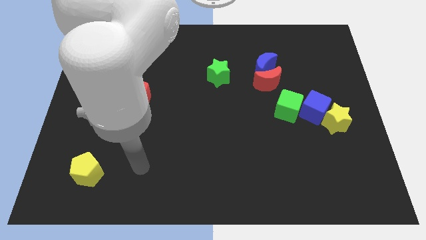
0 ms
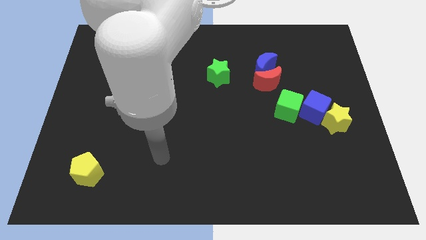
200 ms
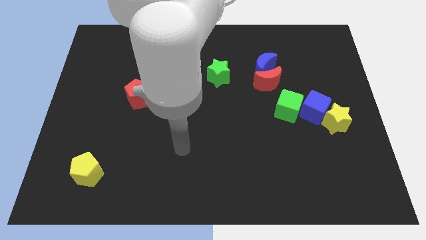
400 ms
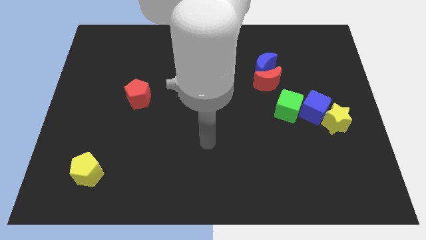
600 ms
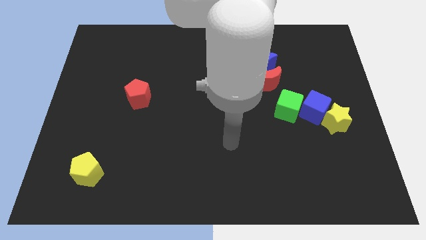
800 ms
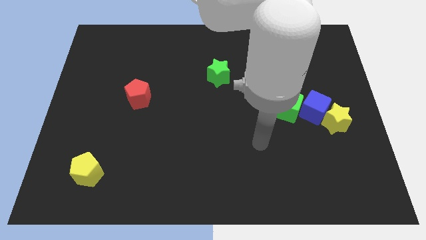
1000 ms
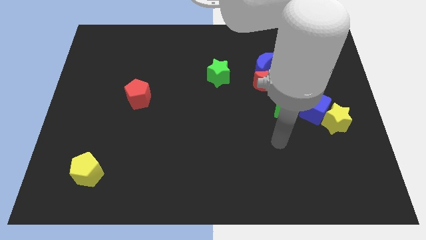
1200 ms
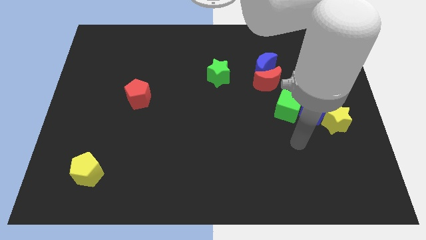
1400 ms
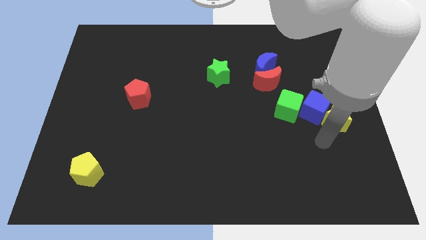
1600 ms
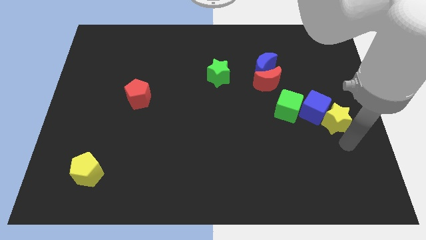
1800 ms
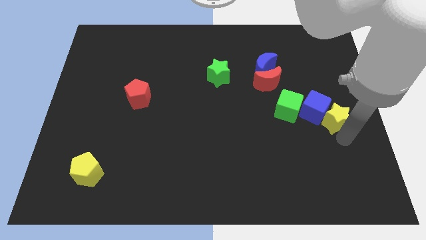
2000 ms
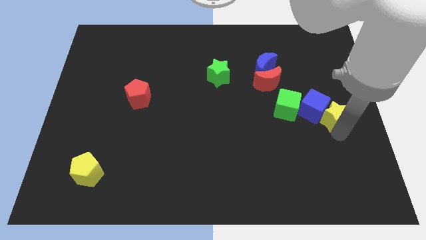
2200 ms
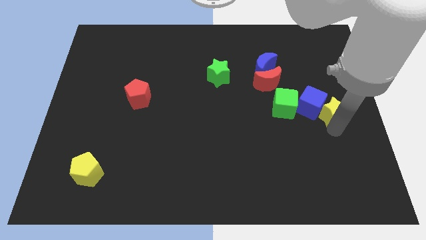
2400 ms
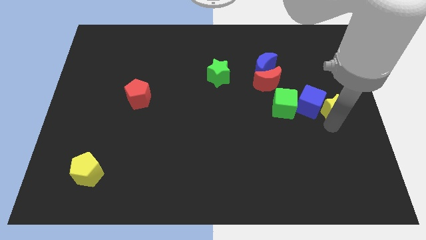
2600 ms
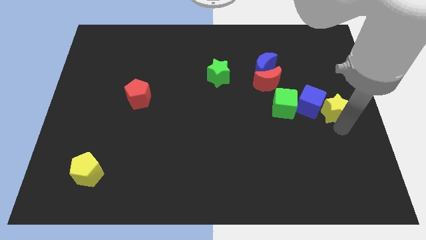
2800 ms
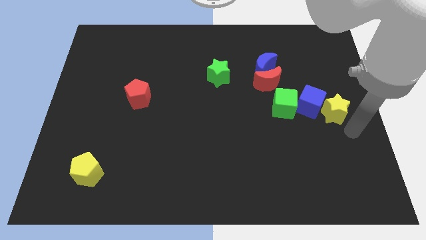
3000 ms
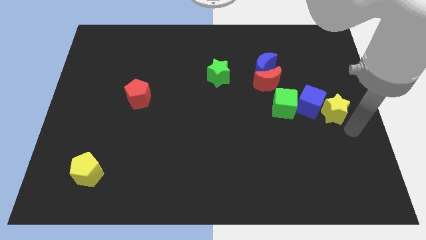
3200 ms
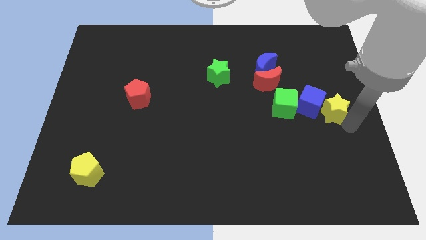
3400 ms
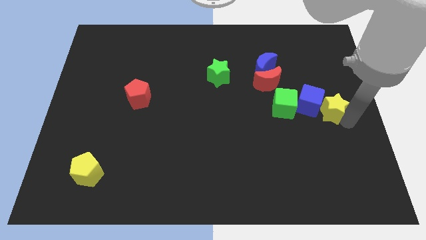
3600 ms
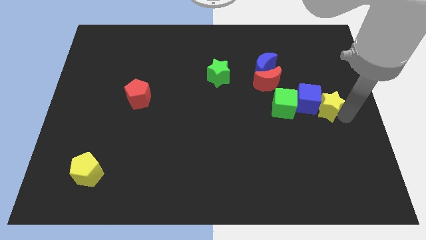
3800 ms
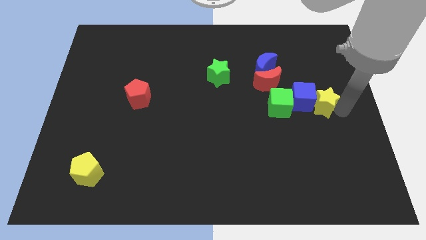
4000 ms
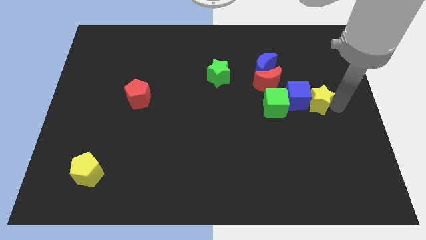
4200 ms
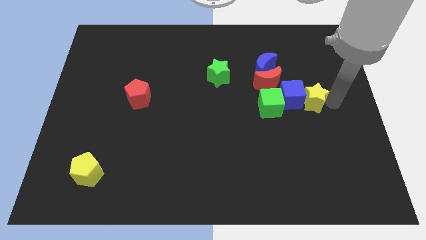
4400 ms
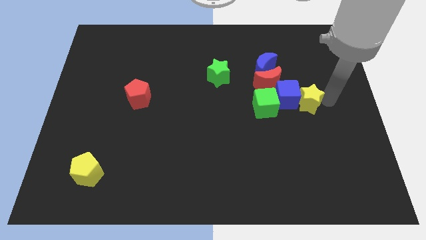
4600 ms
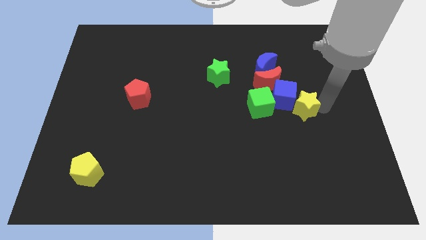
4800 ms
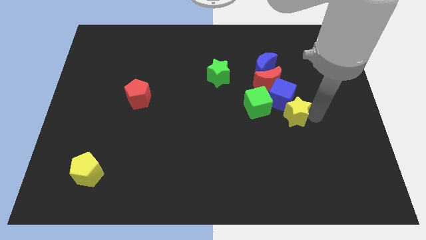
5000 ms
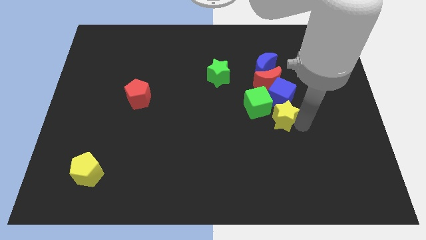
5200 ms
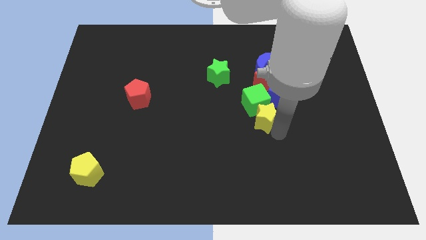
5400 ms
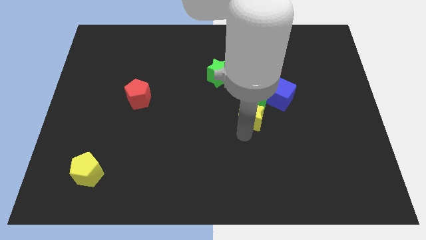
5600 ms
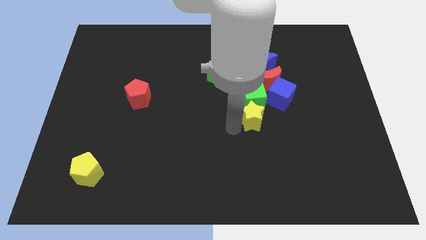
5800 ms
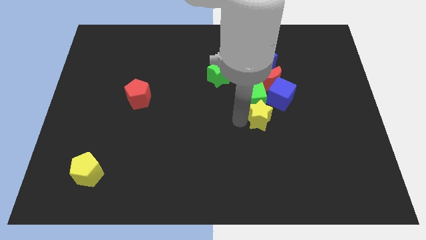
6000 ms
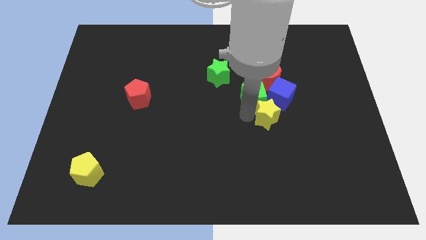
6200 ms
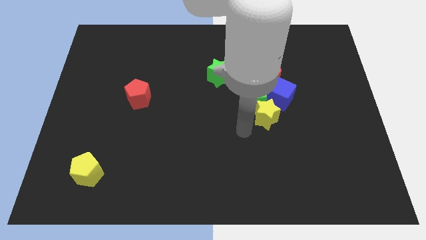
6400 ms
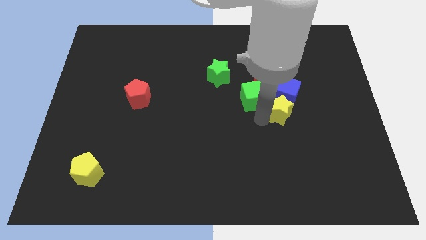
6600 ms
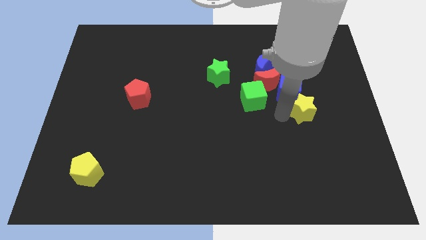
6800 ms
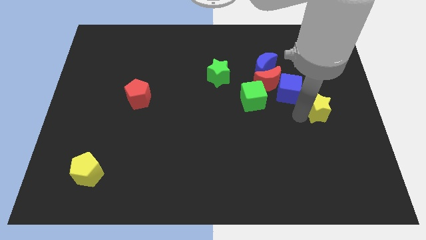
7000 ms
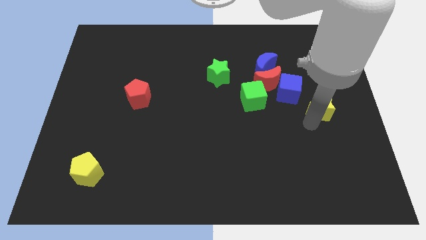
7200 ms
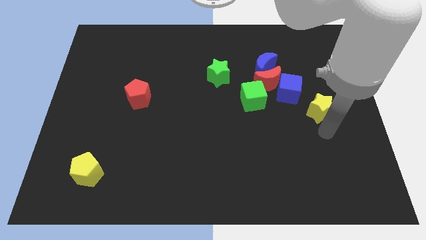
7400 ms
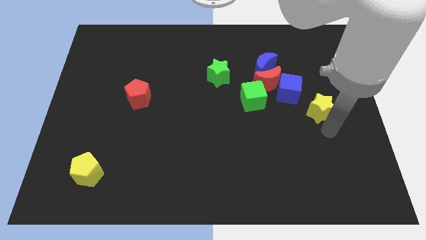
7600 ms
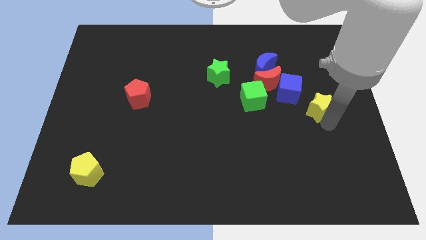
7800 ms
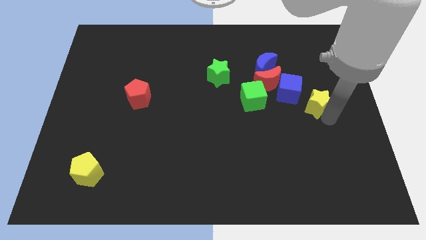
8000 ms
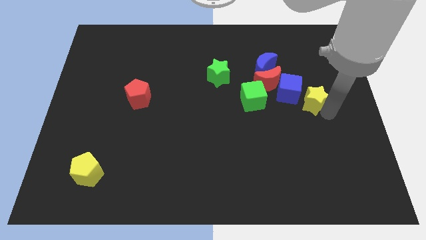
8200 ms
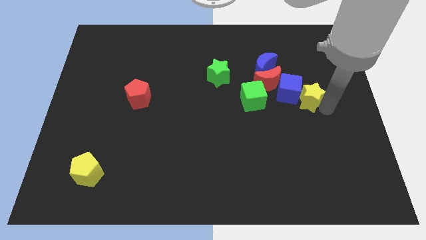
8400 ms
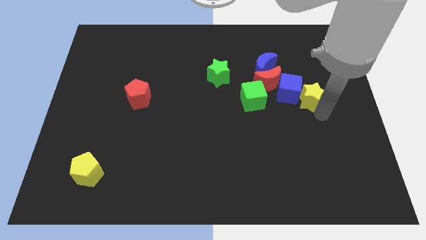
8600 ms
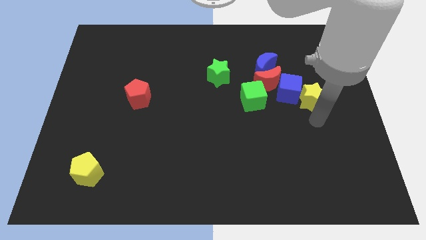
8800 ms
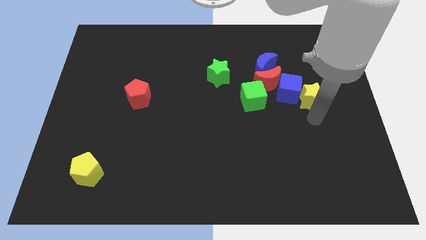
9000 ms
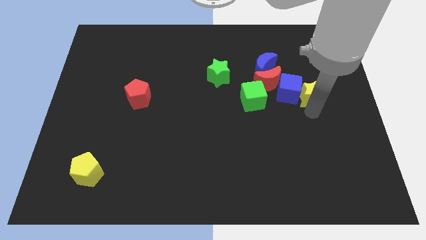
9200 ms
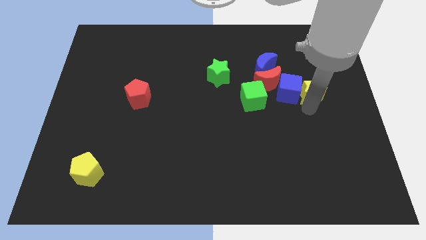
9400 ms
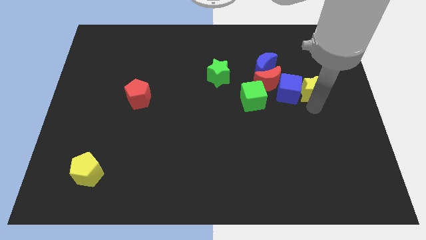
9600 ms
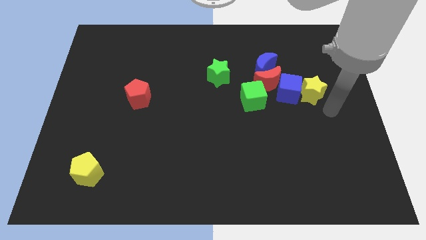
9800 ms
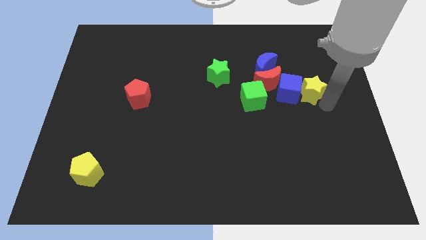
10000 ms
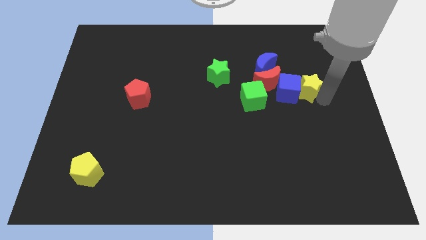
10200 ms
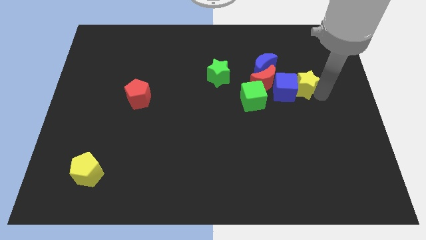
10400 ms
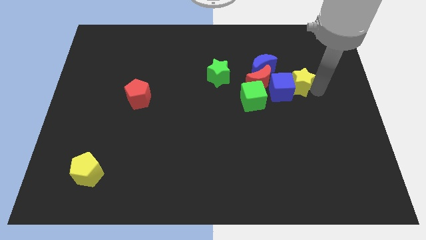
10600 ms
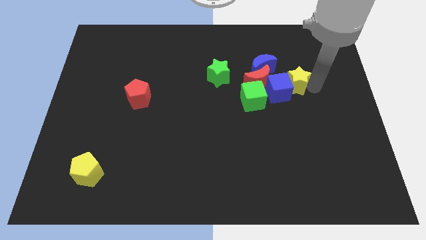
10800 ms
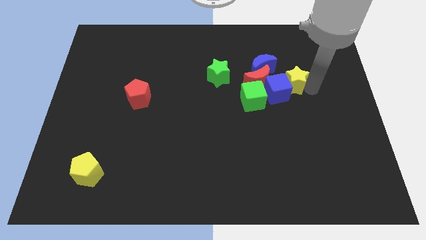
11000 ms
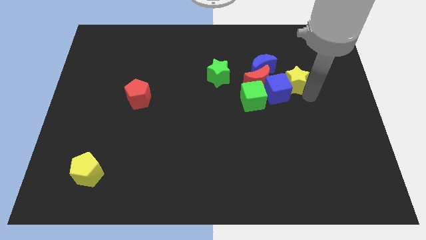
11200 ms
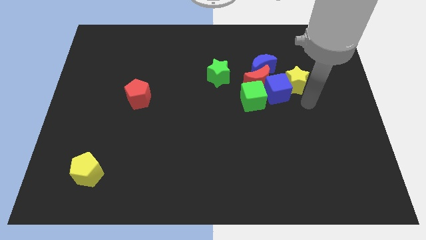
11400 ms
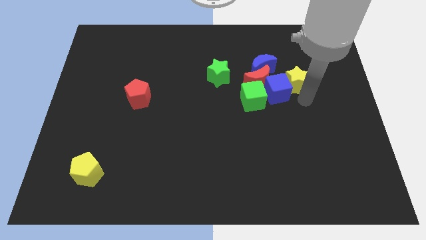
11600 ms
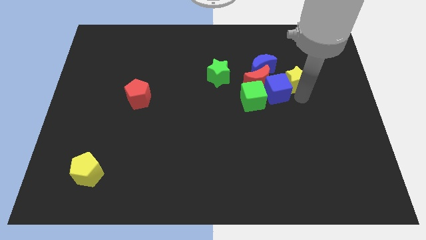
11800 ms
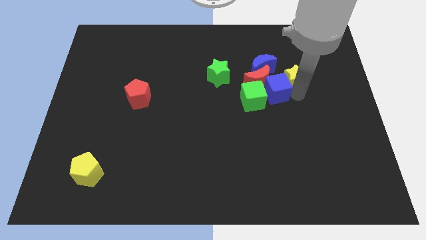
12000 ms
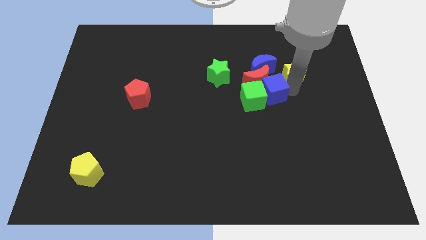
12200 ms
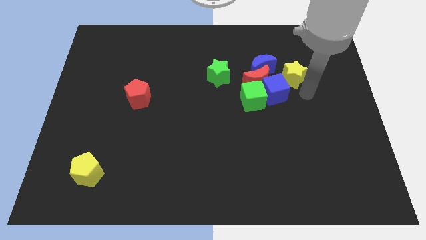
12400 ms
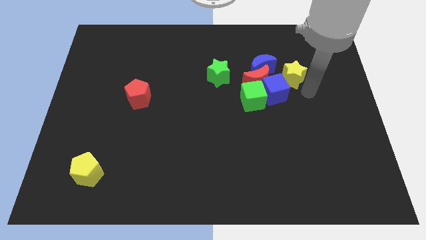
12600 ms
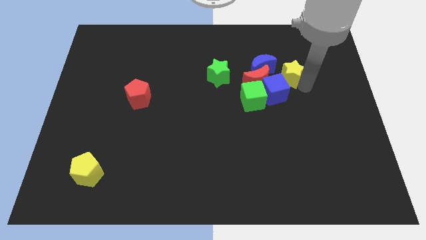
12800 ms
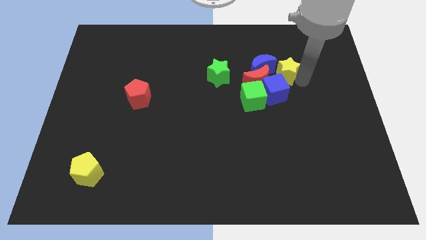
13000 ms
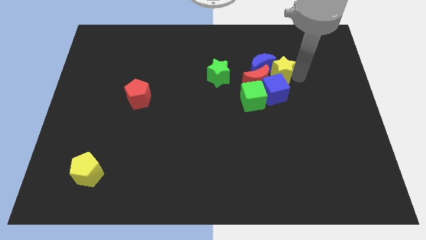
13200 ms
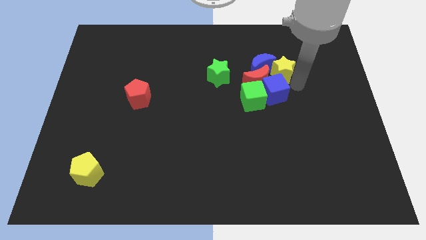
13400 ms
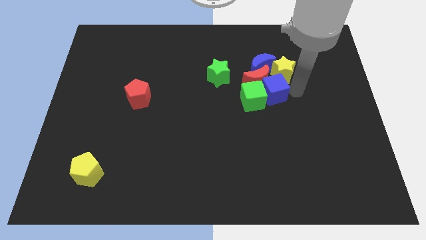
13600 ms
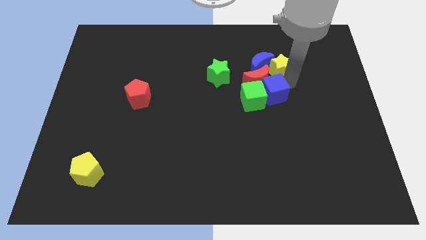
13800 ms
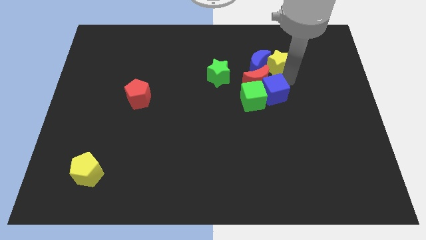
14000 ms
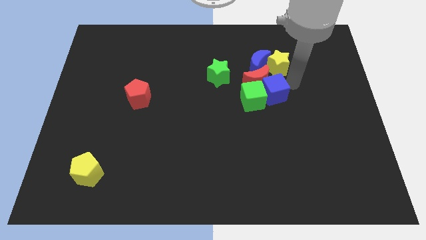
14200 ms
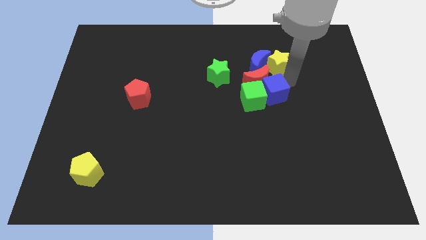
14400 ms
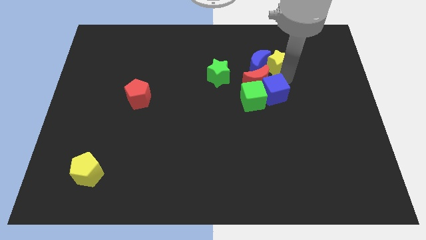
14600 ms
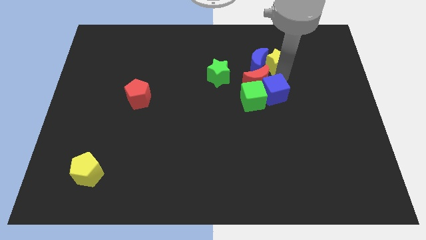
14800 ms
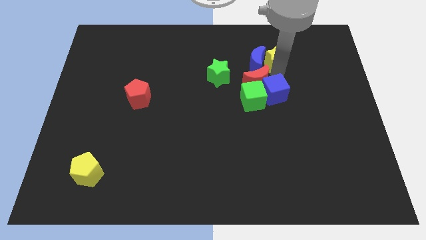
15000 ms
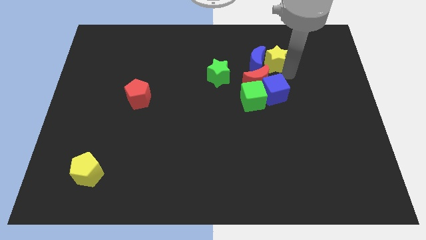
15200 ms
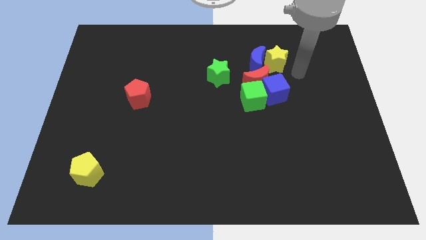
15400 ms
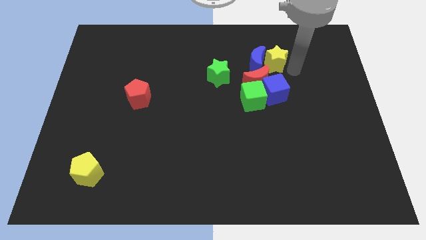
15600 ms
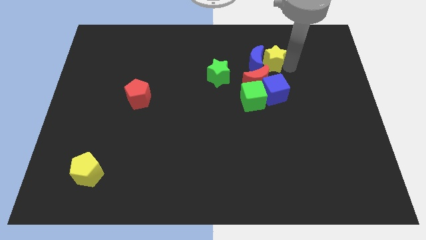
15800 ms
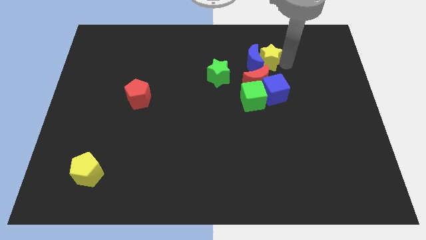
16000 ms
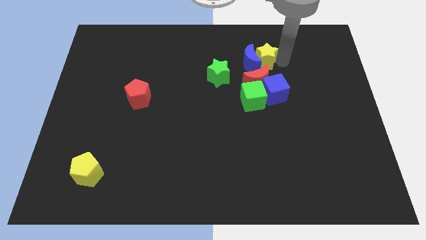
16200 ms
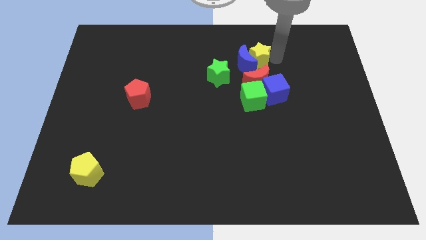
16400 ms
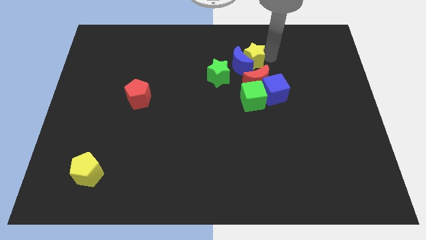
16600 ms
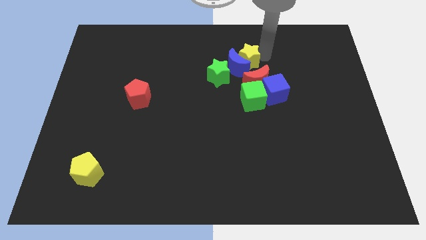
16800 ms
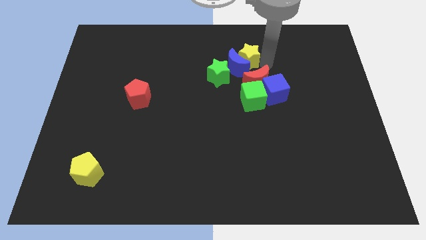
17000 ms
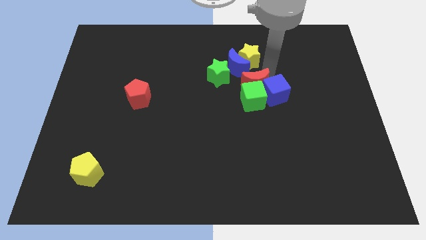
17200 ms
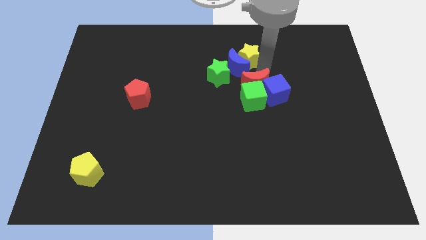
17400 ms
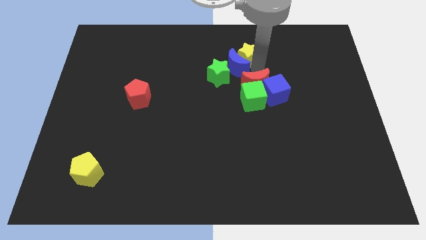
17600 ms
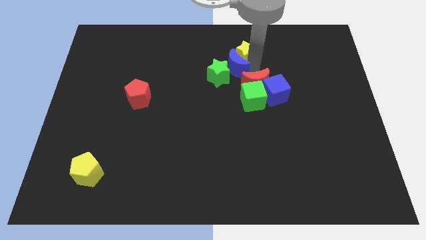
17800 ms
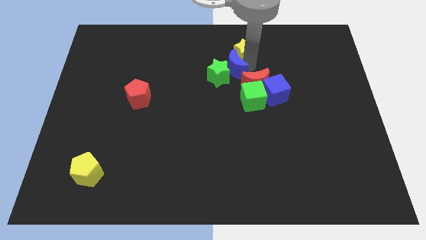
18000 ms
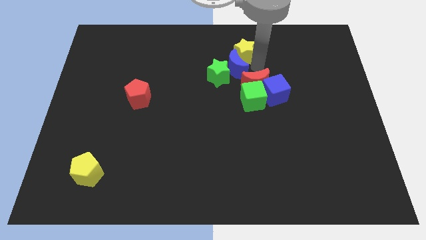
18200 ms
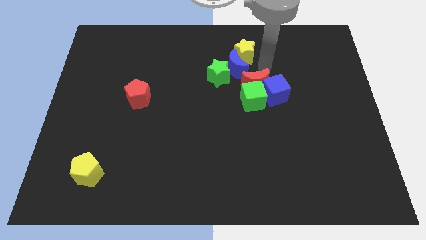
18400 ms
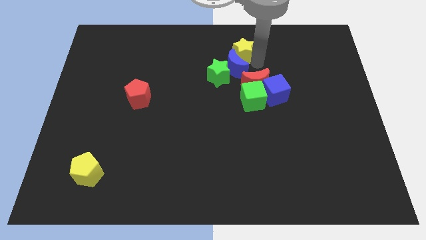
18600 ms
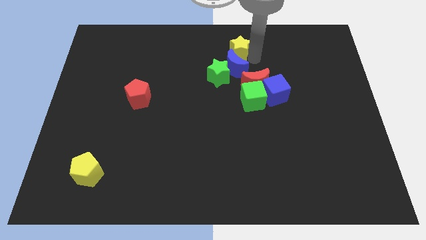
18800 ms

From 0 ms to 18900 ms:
slide the yellow star to the top side
